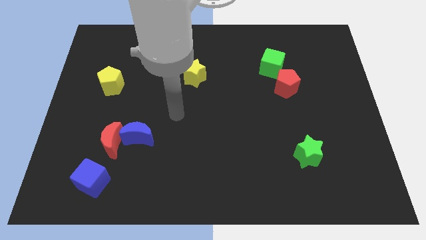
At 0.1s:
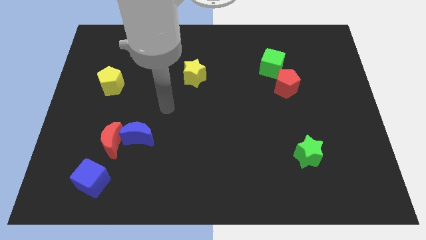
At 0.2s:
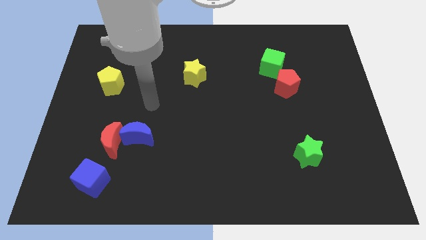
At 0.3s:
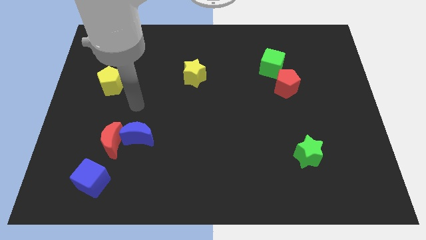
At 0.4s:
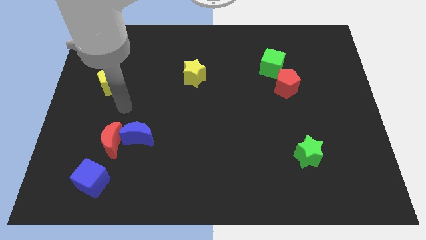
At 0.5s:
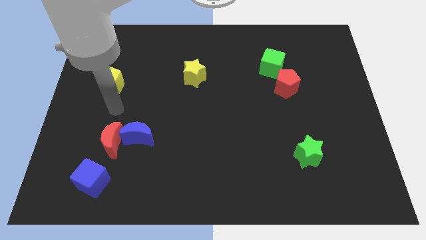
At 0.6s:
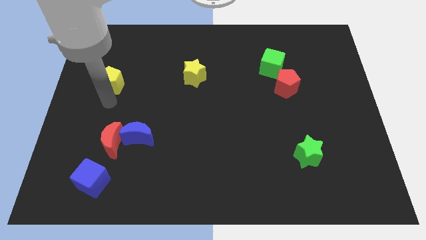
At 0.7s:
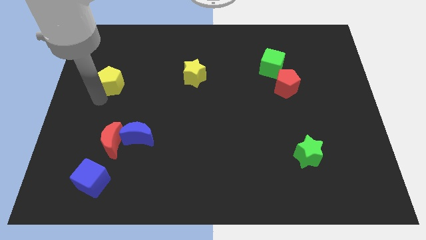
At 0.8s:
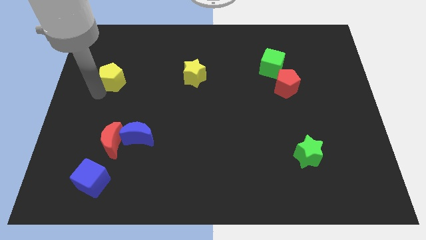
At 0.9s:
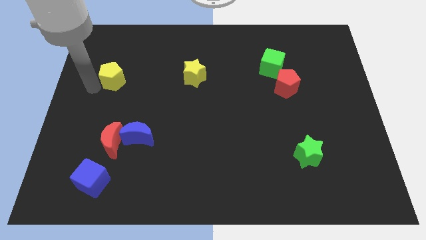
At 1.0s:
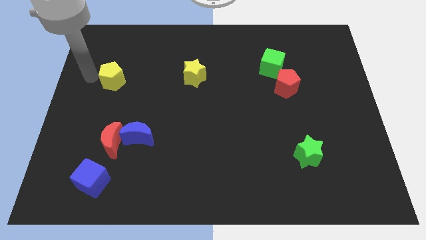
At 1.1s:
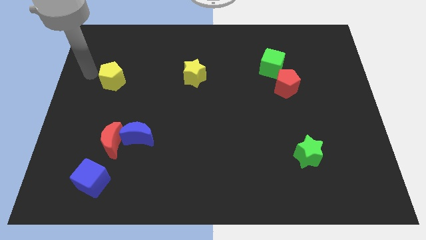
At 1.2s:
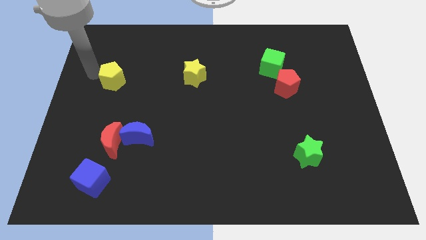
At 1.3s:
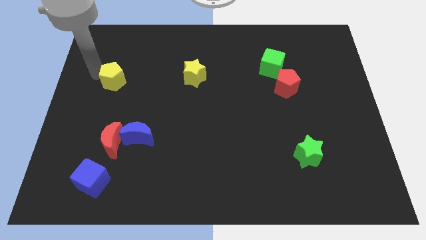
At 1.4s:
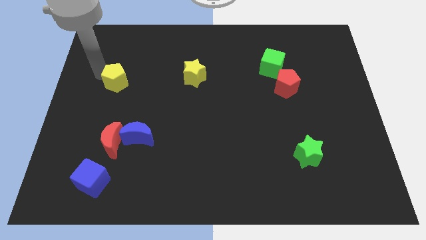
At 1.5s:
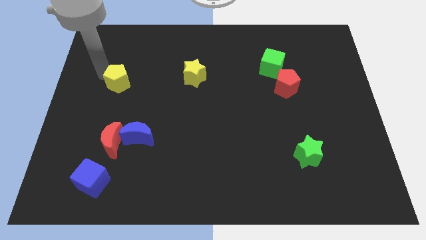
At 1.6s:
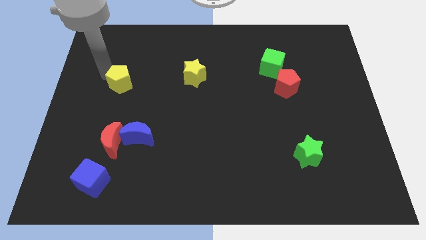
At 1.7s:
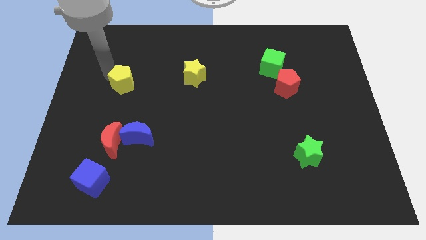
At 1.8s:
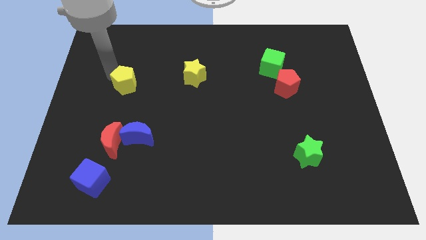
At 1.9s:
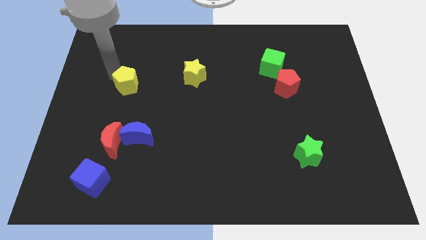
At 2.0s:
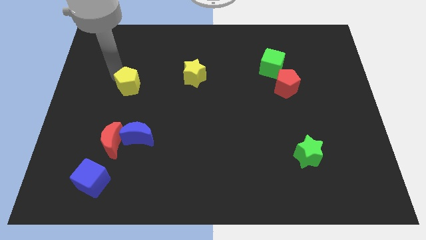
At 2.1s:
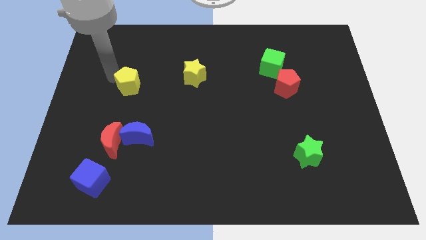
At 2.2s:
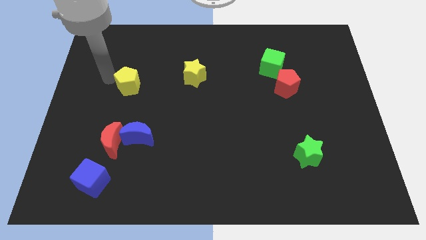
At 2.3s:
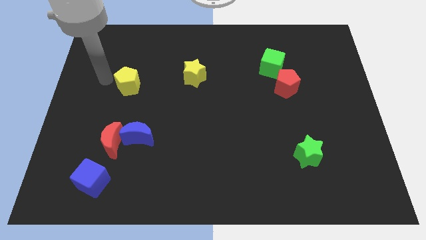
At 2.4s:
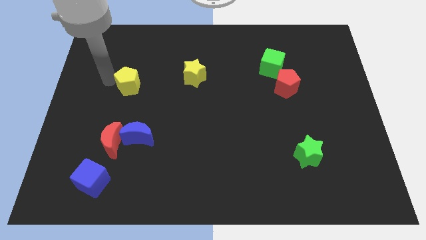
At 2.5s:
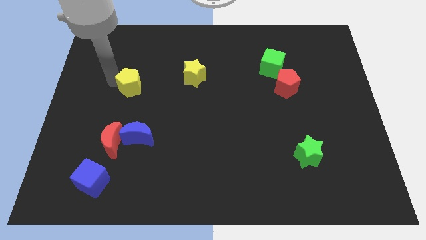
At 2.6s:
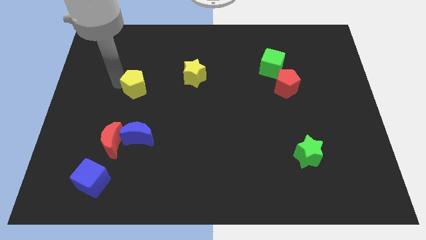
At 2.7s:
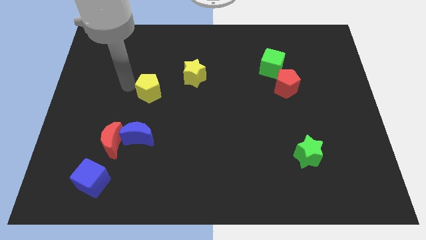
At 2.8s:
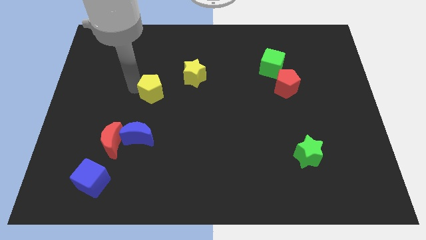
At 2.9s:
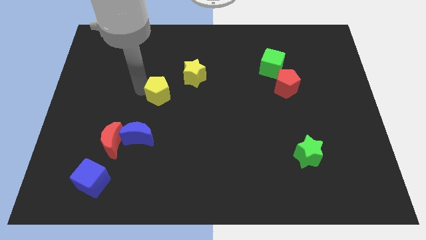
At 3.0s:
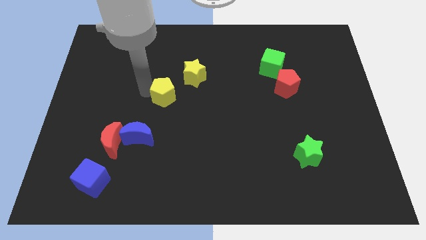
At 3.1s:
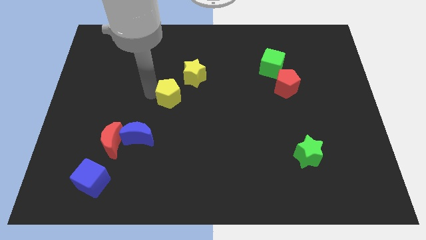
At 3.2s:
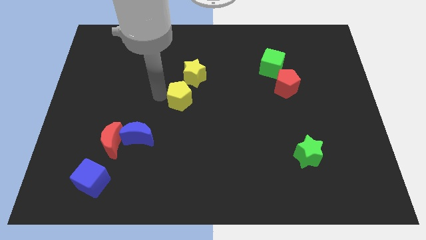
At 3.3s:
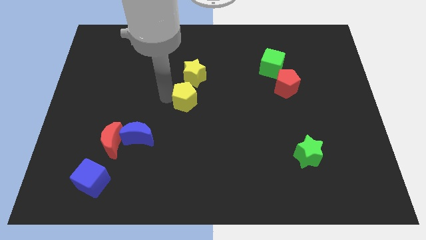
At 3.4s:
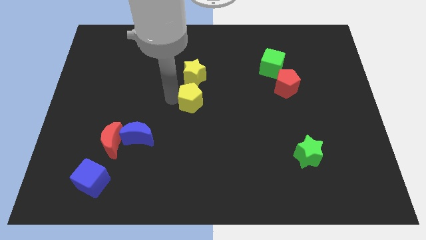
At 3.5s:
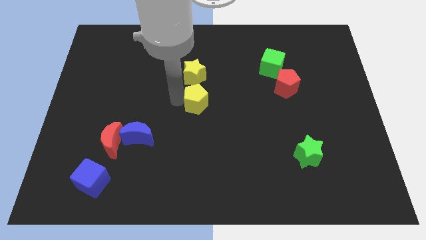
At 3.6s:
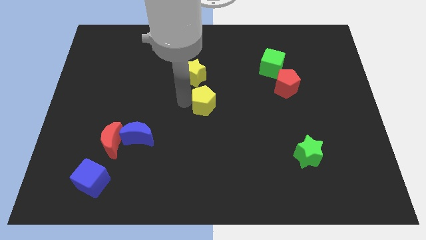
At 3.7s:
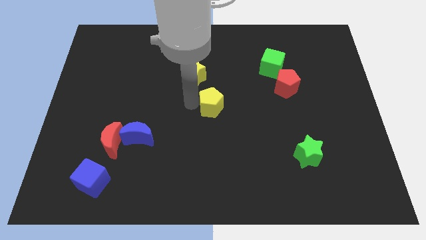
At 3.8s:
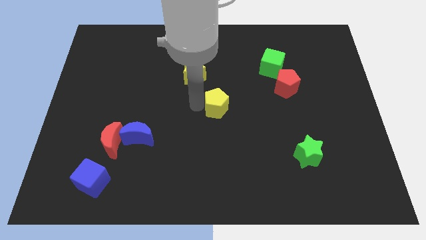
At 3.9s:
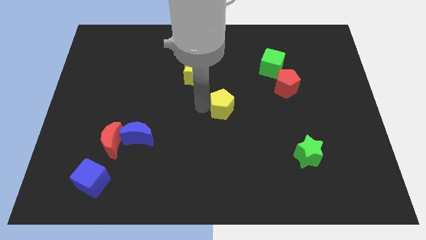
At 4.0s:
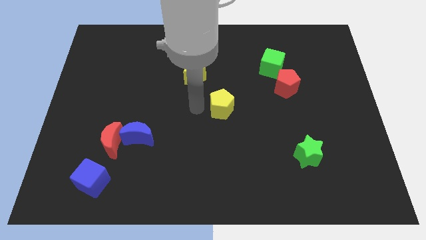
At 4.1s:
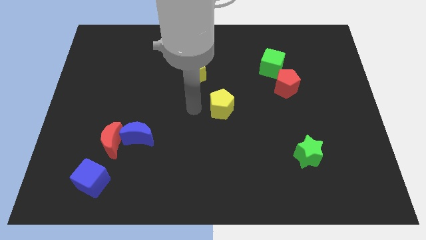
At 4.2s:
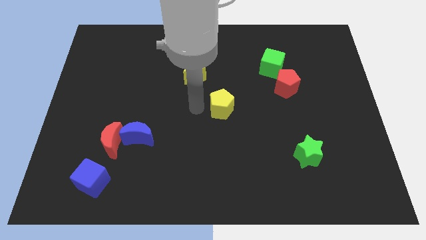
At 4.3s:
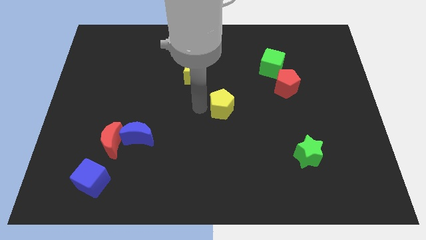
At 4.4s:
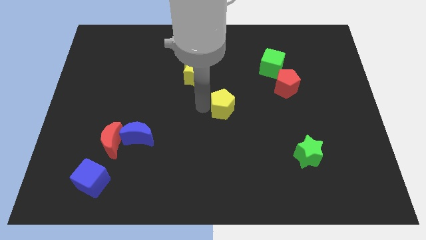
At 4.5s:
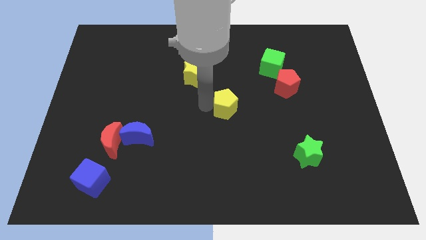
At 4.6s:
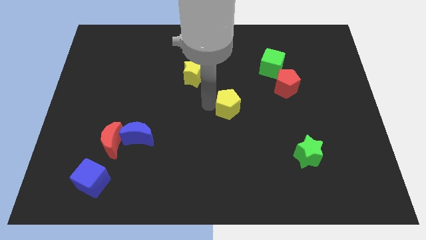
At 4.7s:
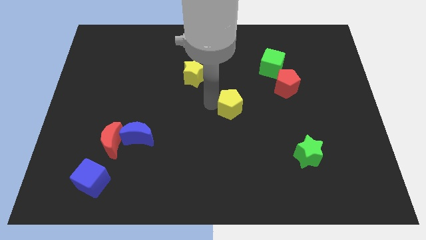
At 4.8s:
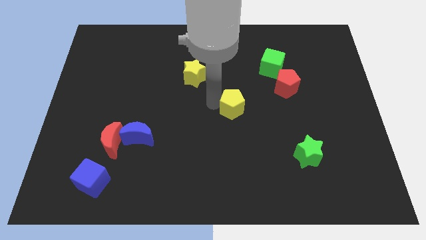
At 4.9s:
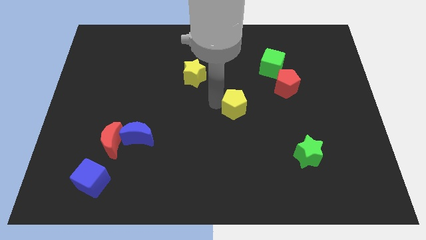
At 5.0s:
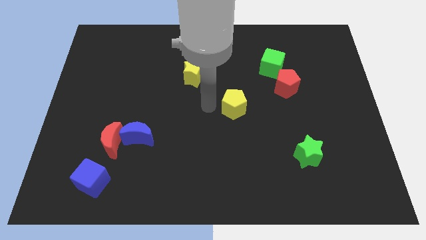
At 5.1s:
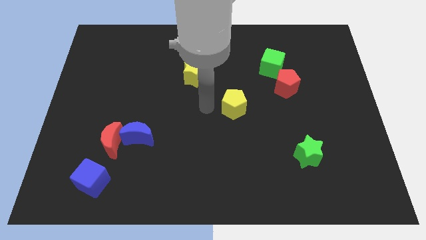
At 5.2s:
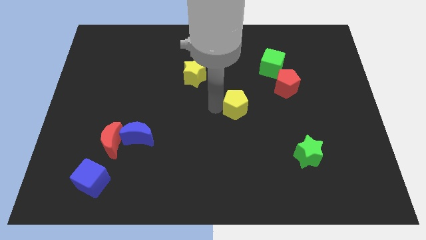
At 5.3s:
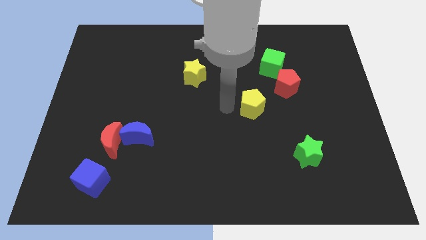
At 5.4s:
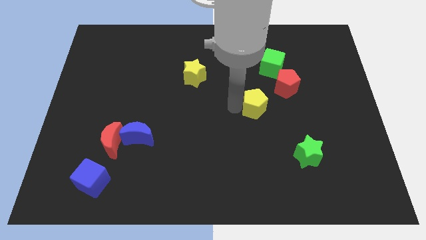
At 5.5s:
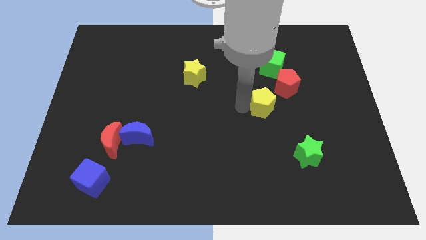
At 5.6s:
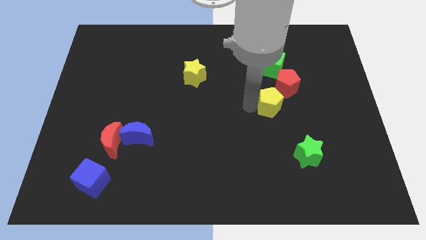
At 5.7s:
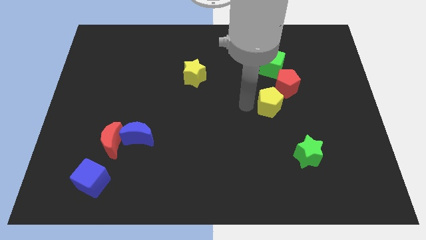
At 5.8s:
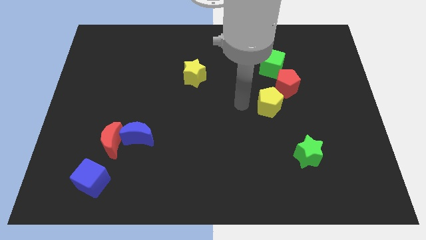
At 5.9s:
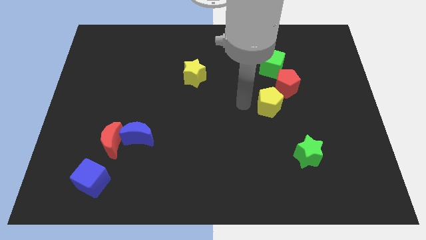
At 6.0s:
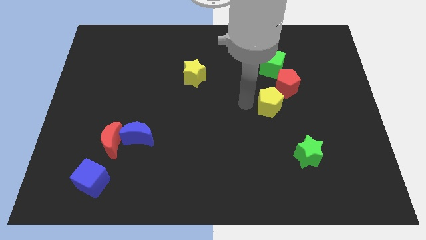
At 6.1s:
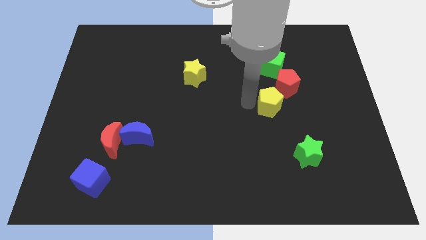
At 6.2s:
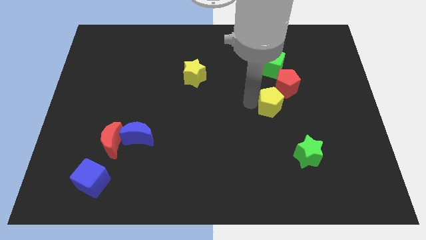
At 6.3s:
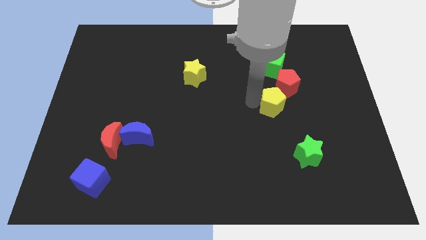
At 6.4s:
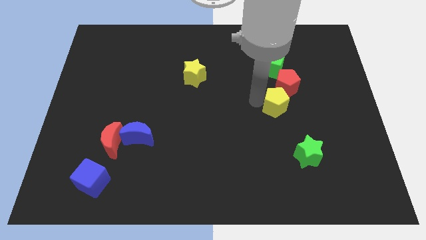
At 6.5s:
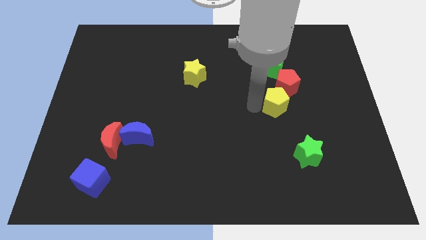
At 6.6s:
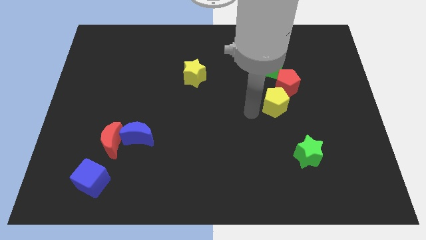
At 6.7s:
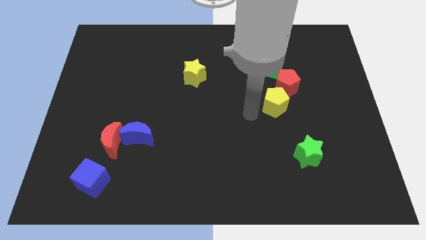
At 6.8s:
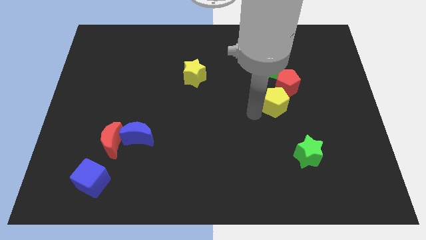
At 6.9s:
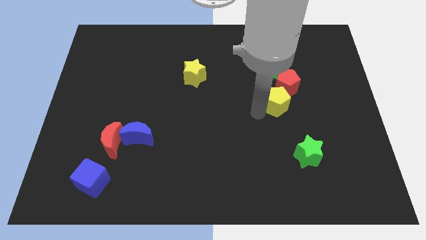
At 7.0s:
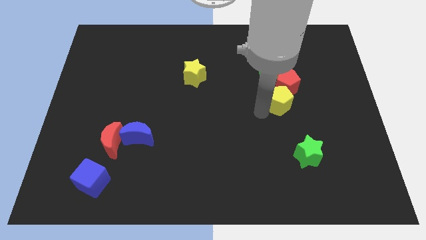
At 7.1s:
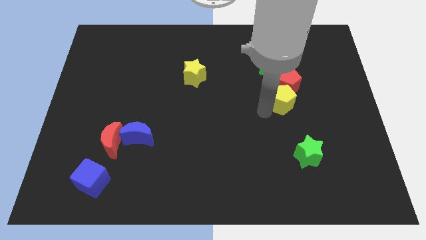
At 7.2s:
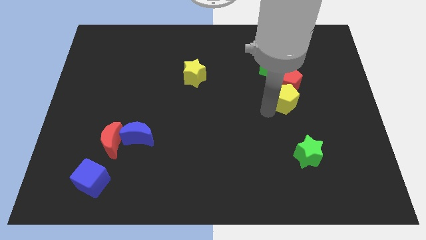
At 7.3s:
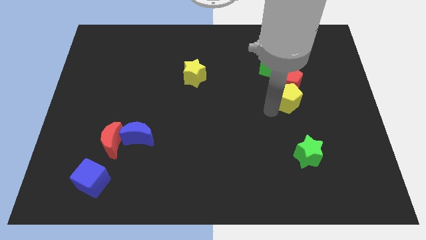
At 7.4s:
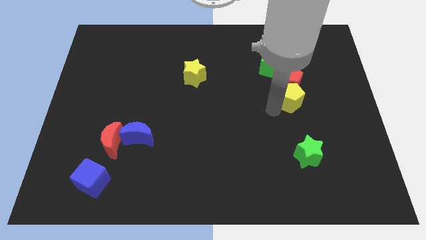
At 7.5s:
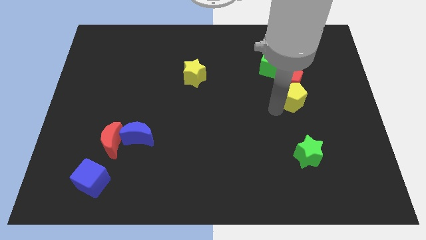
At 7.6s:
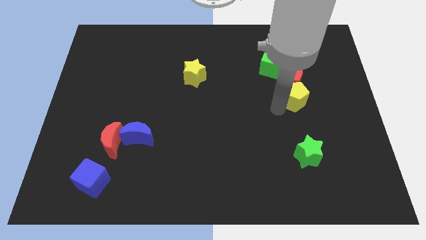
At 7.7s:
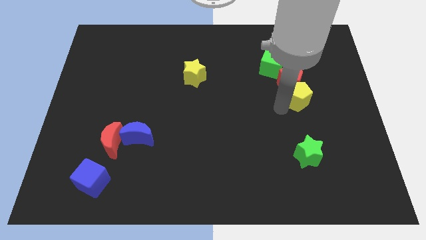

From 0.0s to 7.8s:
push the yellow pentagon to the bottom right of the green cube
